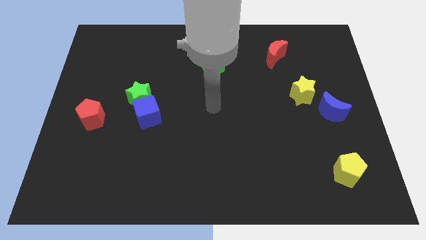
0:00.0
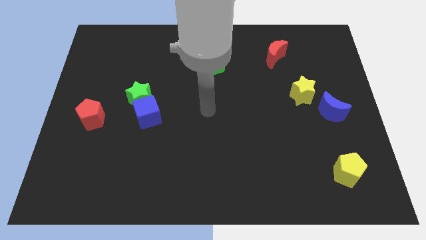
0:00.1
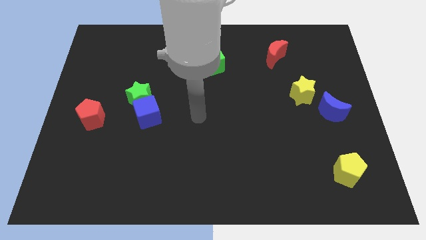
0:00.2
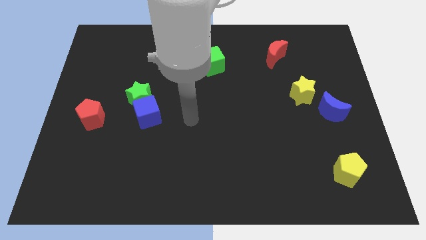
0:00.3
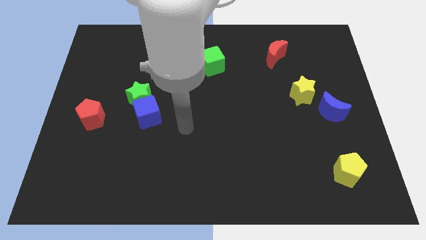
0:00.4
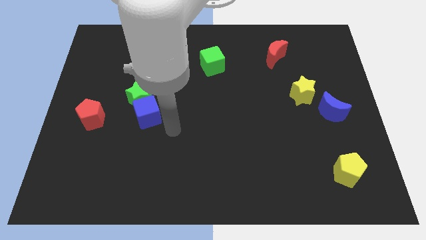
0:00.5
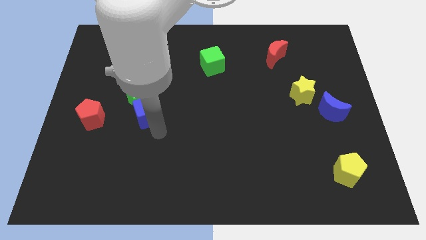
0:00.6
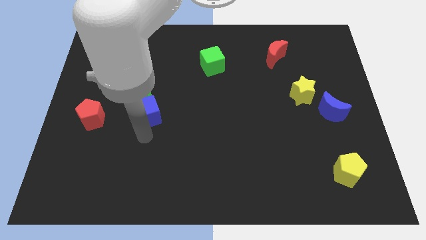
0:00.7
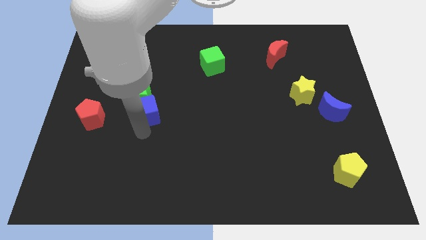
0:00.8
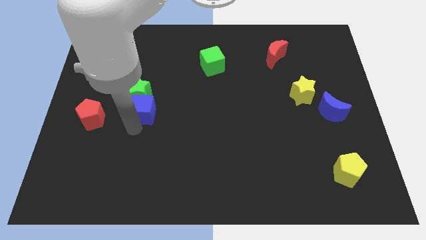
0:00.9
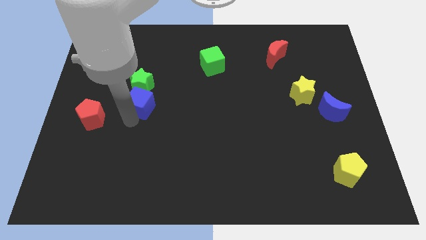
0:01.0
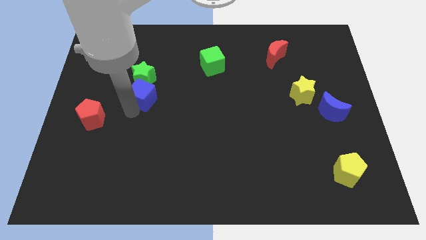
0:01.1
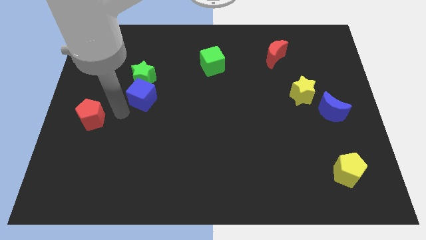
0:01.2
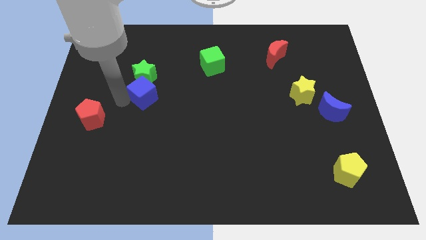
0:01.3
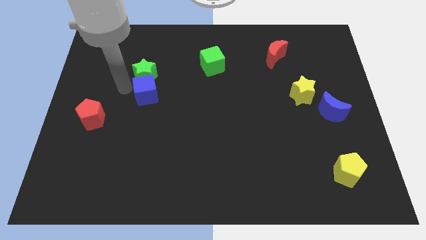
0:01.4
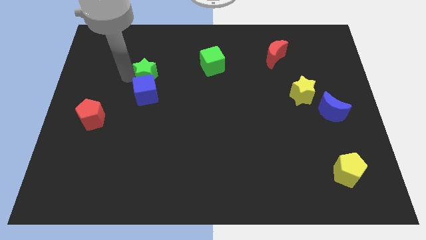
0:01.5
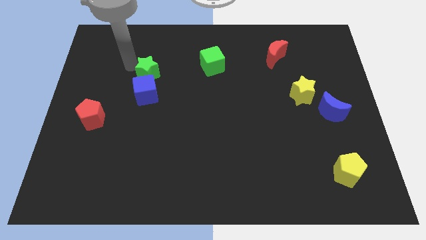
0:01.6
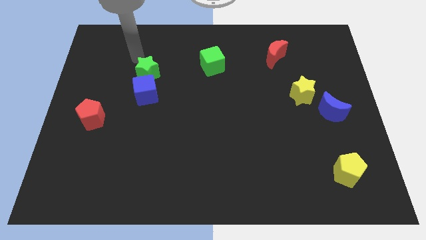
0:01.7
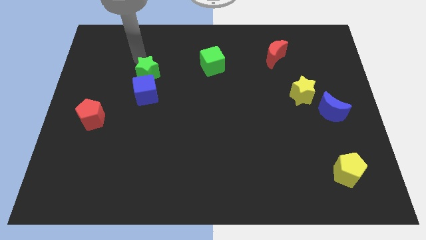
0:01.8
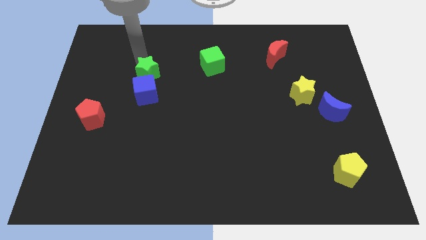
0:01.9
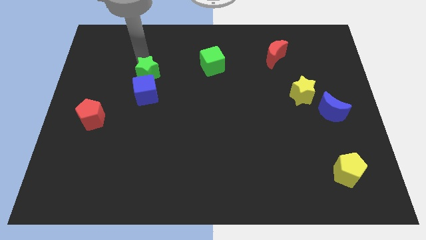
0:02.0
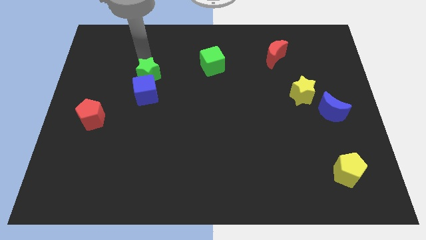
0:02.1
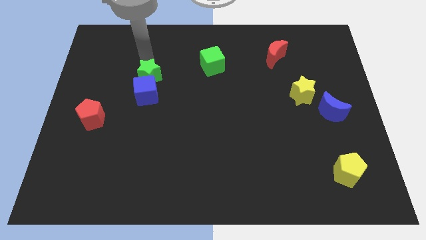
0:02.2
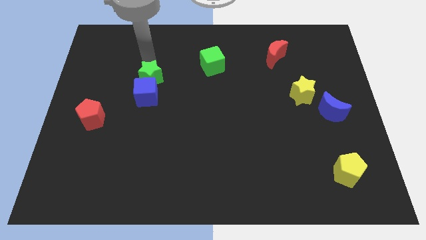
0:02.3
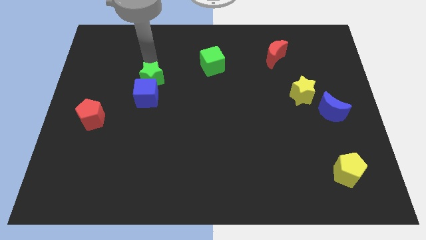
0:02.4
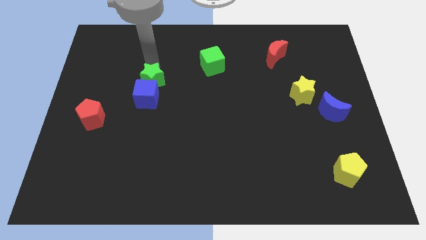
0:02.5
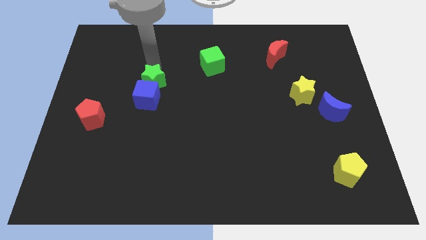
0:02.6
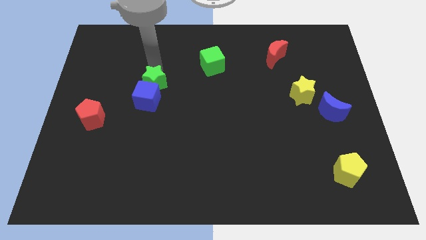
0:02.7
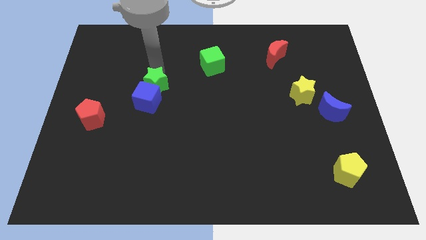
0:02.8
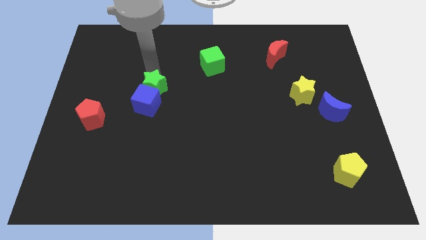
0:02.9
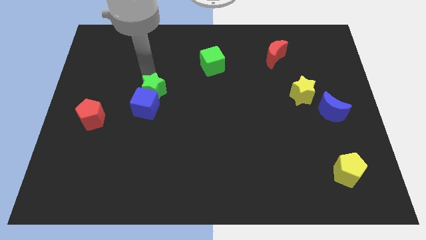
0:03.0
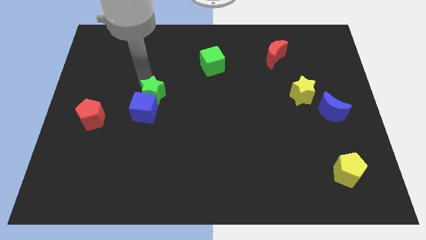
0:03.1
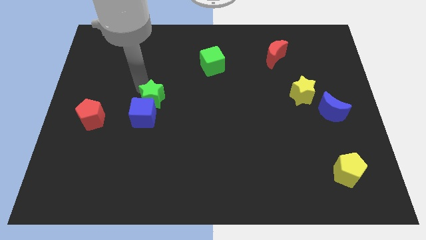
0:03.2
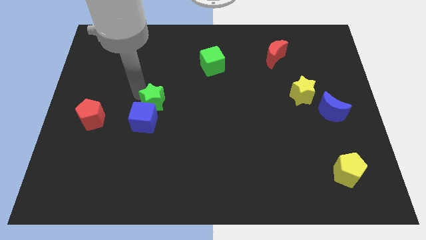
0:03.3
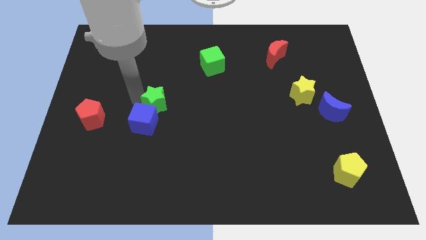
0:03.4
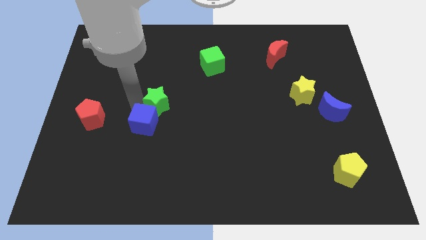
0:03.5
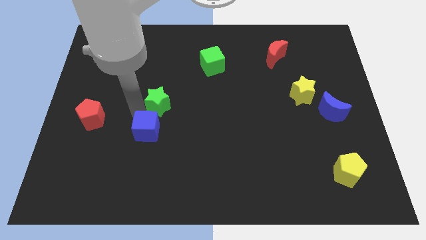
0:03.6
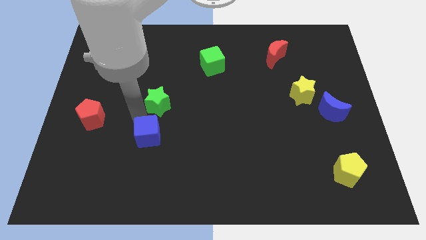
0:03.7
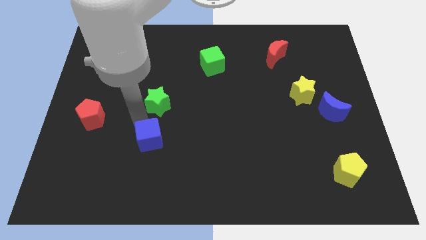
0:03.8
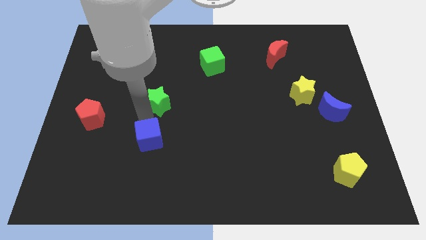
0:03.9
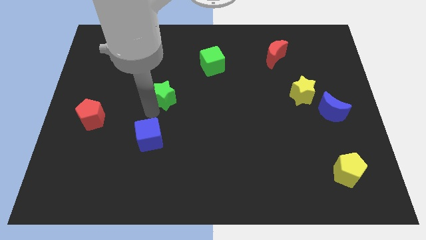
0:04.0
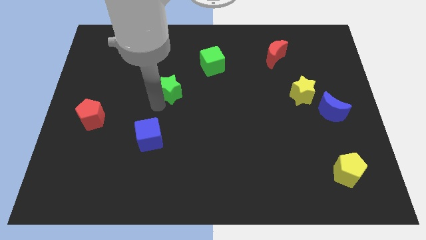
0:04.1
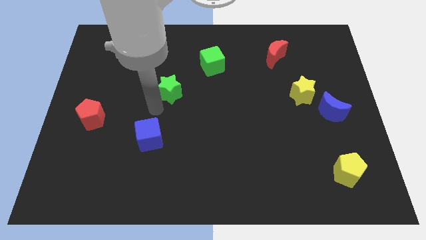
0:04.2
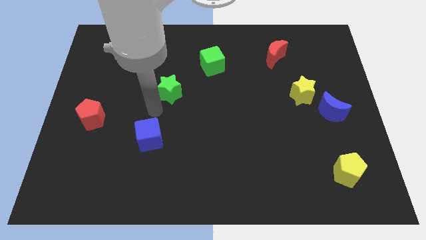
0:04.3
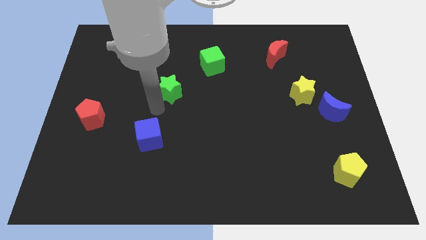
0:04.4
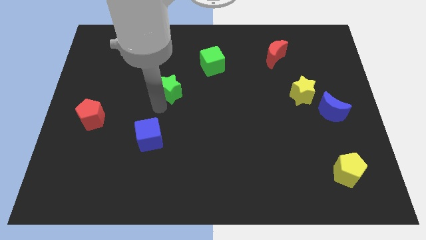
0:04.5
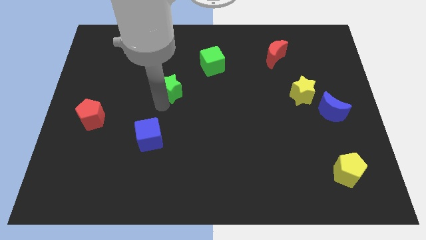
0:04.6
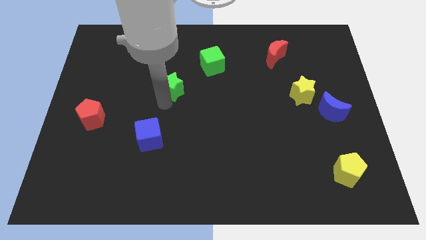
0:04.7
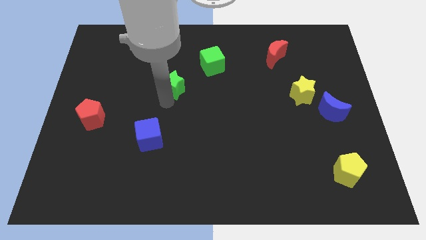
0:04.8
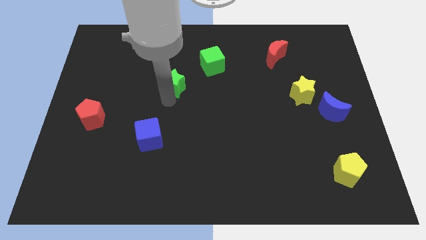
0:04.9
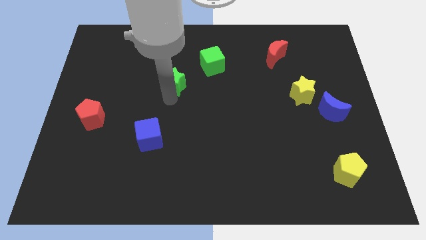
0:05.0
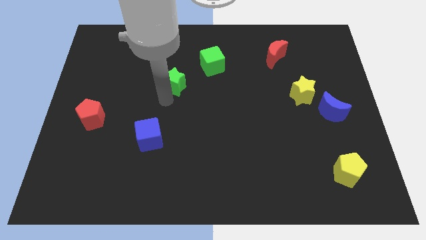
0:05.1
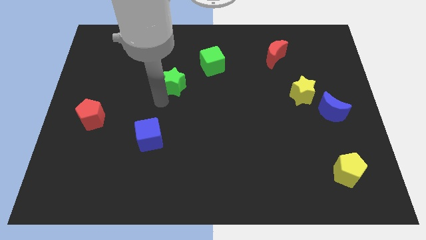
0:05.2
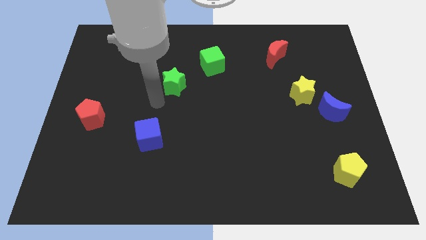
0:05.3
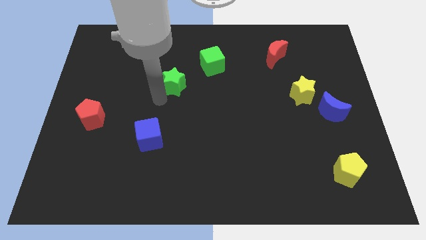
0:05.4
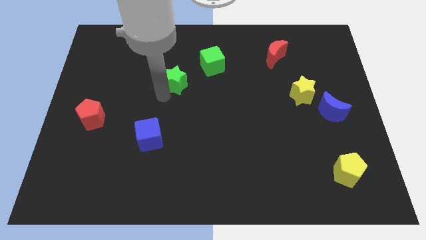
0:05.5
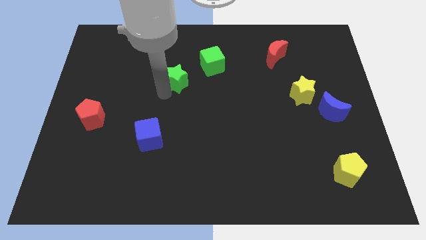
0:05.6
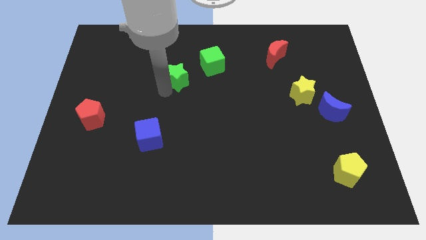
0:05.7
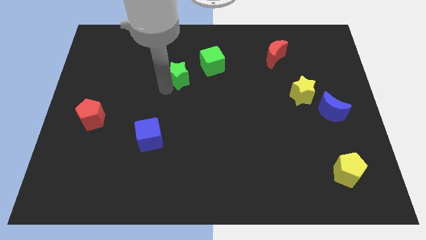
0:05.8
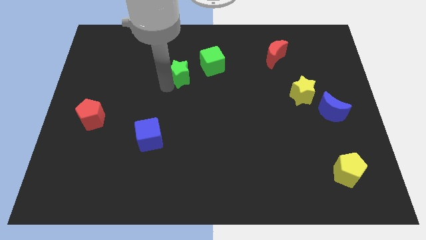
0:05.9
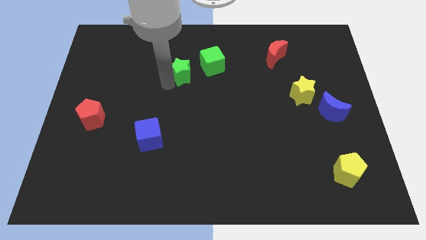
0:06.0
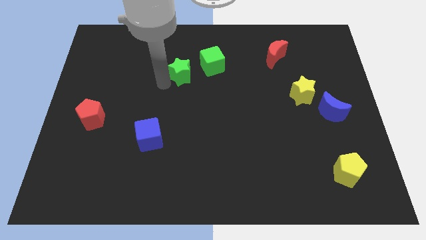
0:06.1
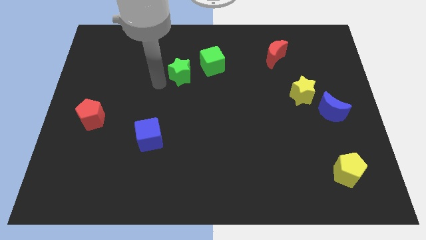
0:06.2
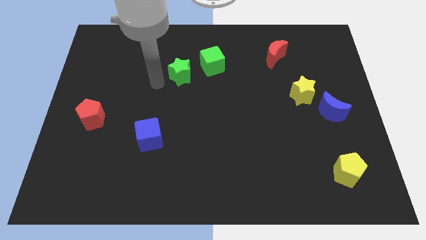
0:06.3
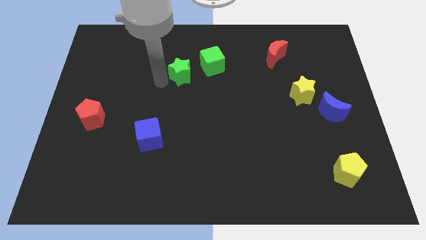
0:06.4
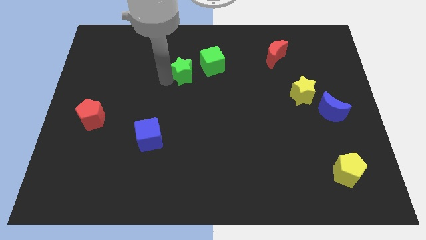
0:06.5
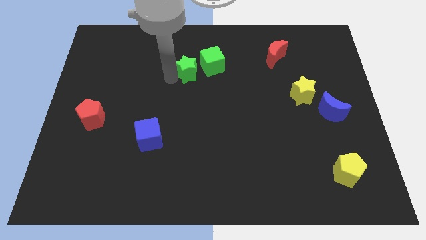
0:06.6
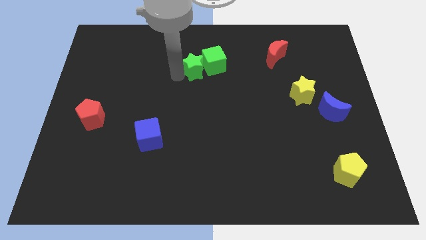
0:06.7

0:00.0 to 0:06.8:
move the green star to the green cube

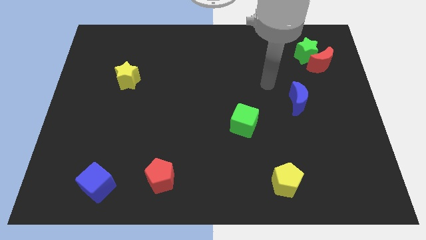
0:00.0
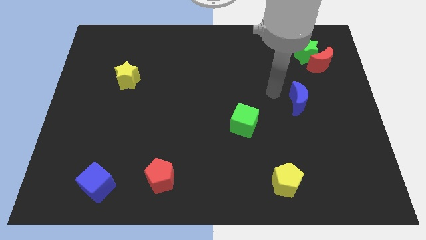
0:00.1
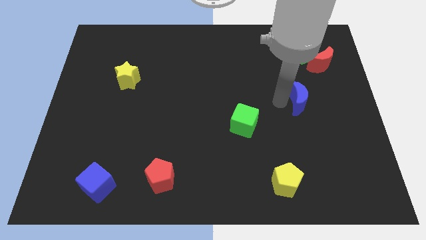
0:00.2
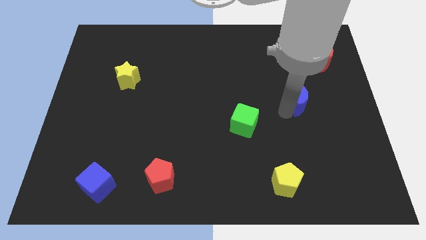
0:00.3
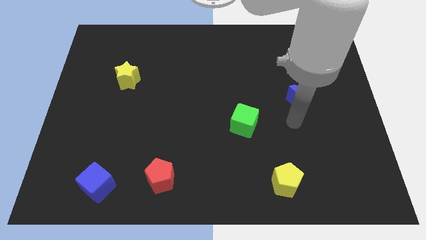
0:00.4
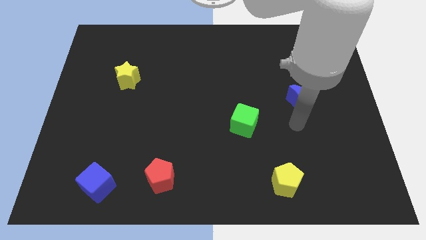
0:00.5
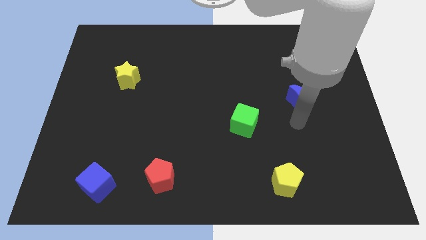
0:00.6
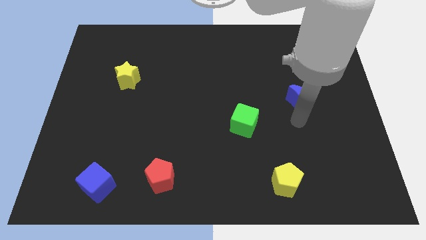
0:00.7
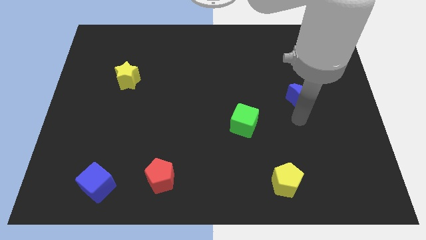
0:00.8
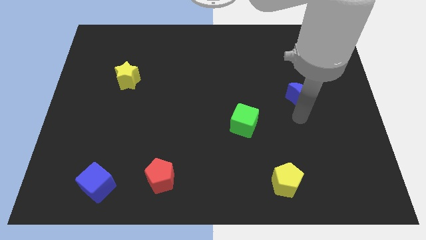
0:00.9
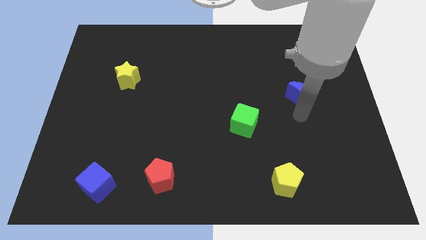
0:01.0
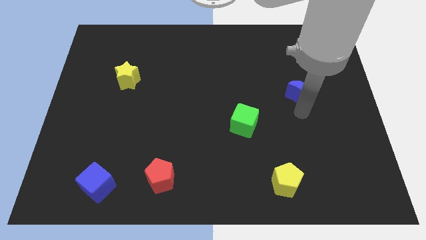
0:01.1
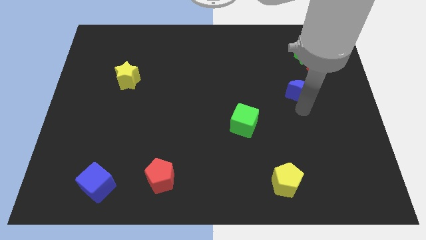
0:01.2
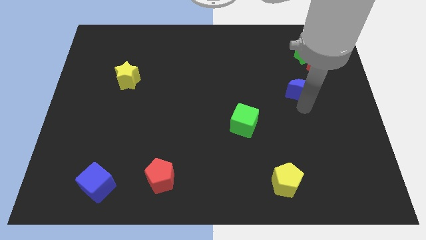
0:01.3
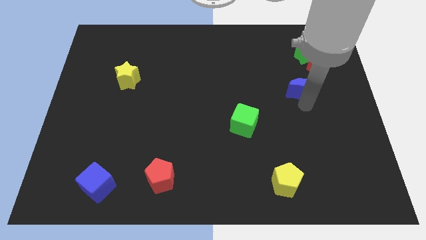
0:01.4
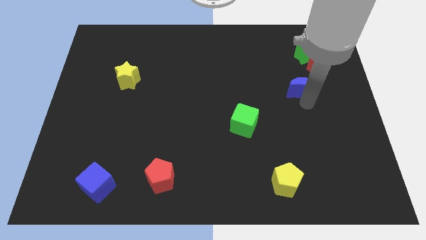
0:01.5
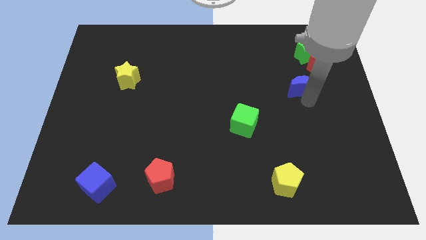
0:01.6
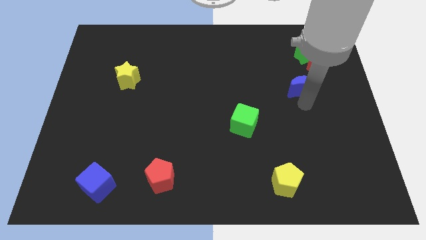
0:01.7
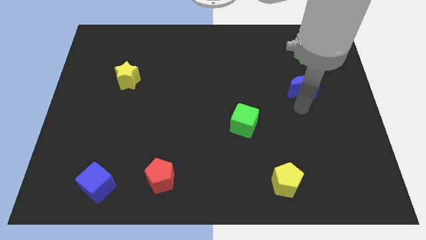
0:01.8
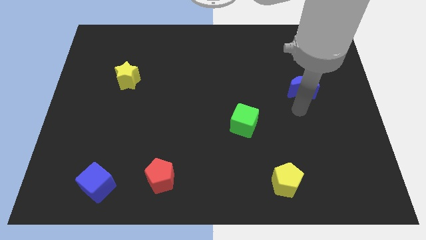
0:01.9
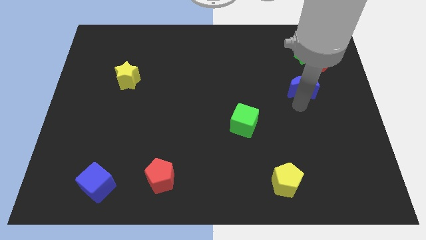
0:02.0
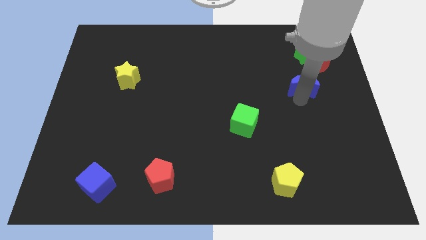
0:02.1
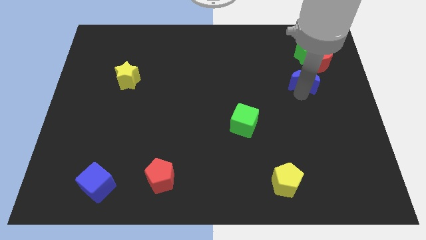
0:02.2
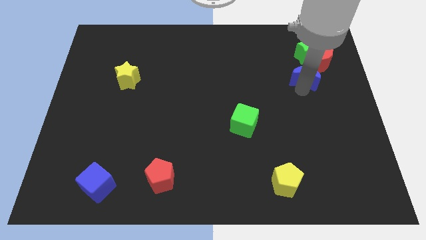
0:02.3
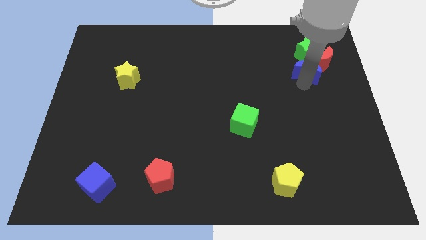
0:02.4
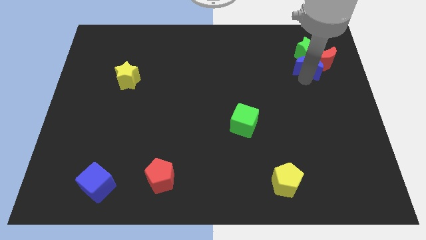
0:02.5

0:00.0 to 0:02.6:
move the blue moon to the green star
